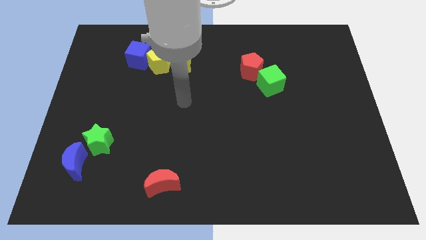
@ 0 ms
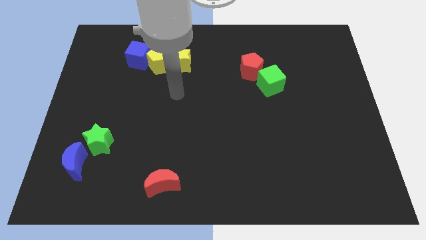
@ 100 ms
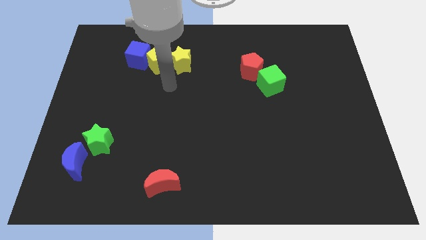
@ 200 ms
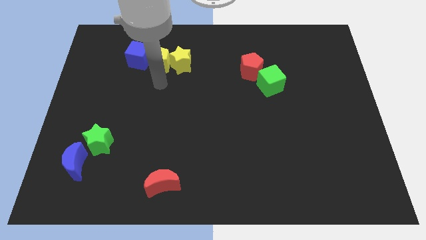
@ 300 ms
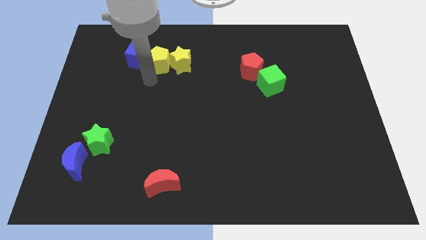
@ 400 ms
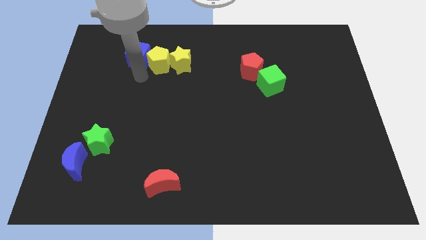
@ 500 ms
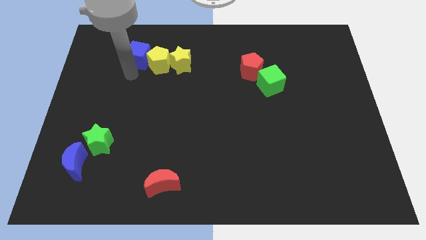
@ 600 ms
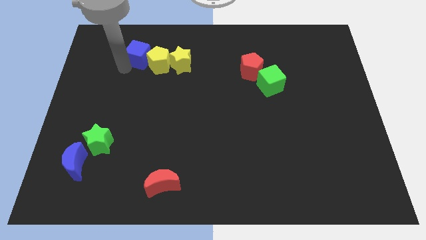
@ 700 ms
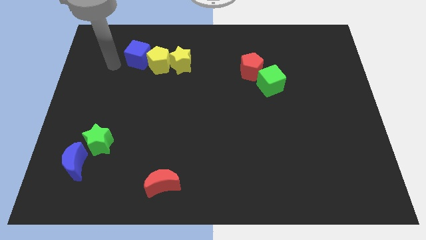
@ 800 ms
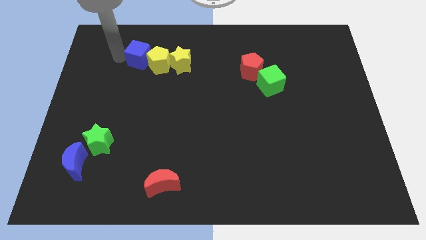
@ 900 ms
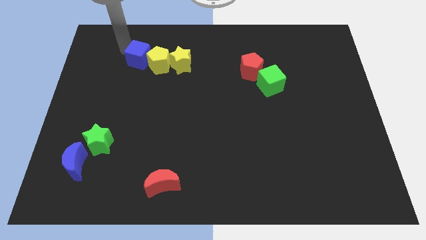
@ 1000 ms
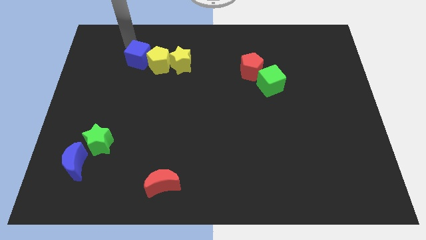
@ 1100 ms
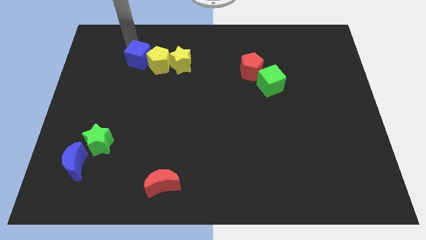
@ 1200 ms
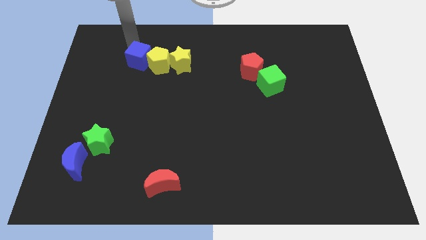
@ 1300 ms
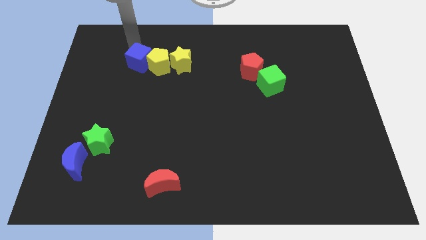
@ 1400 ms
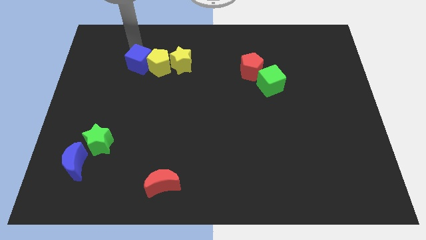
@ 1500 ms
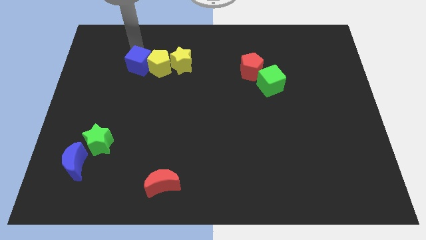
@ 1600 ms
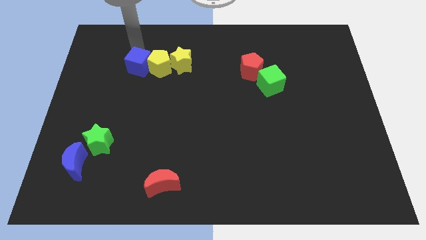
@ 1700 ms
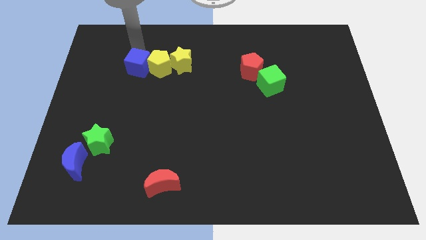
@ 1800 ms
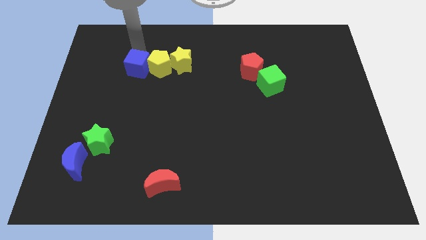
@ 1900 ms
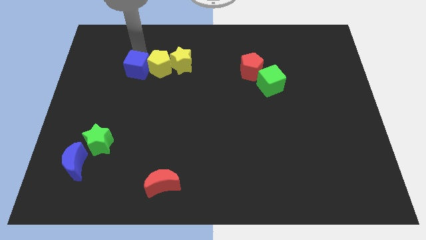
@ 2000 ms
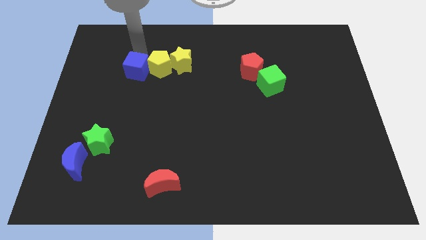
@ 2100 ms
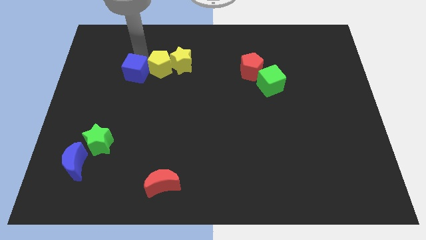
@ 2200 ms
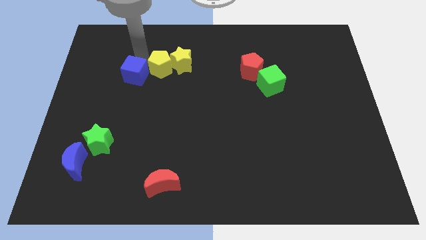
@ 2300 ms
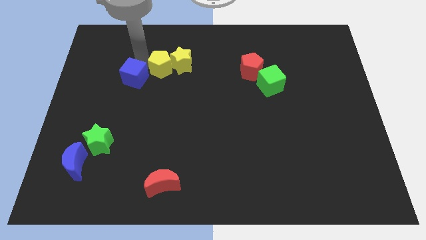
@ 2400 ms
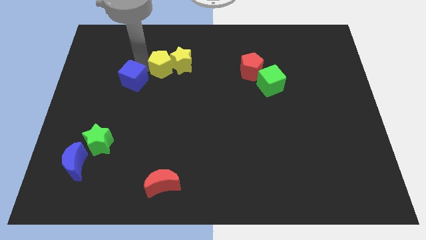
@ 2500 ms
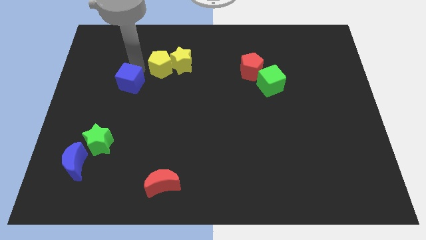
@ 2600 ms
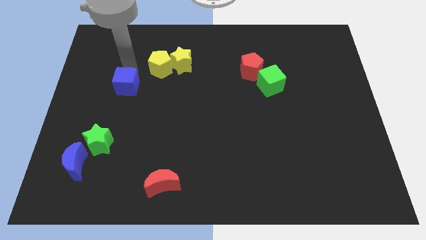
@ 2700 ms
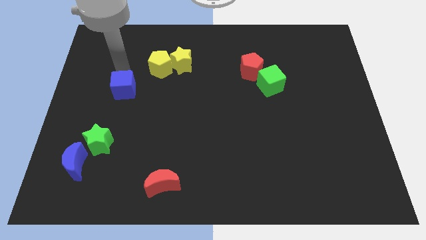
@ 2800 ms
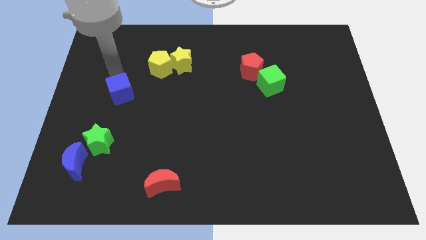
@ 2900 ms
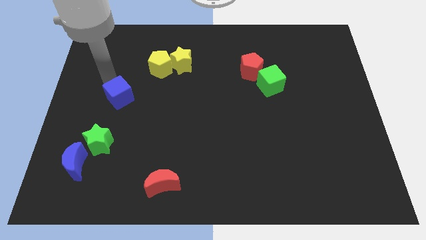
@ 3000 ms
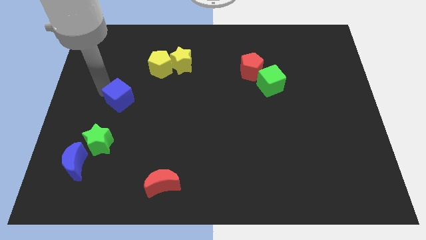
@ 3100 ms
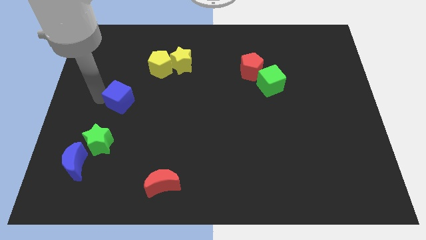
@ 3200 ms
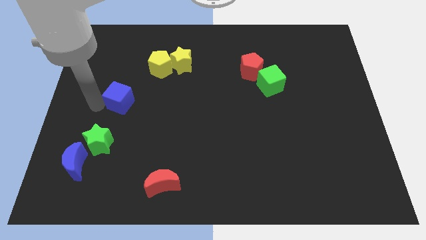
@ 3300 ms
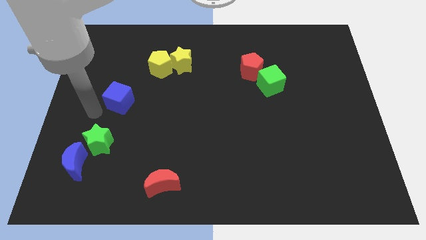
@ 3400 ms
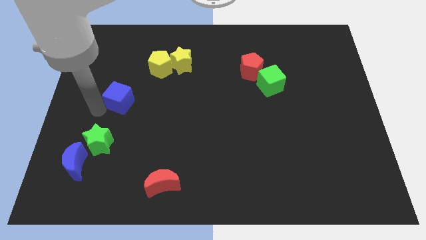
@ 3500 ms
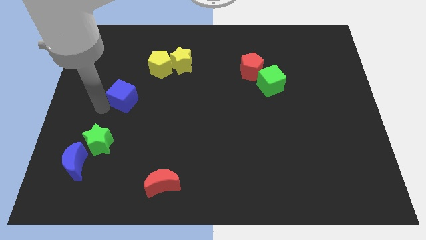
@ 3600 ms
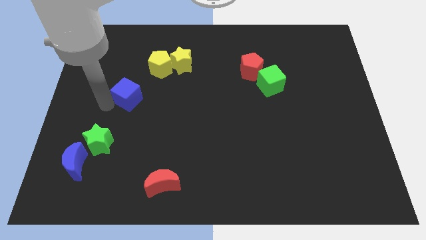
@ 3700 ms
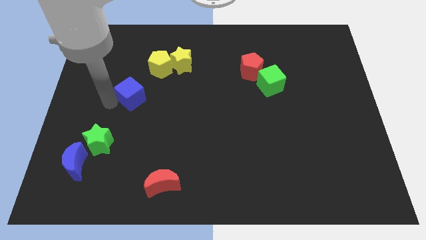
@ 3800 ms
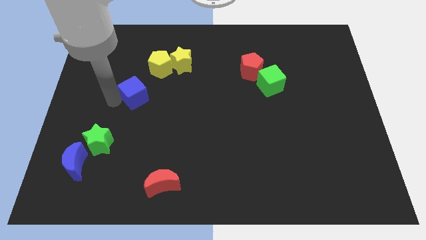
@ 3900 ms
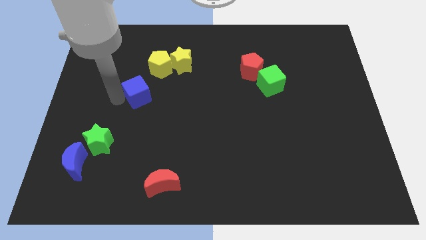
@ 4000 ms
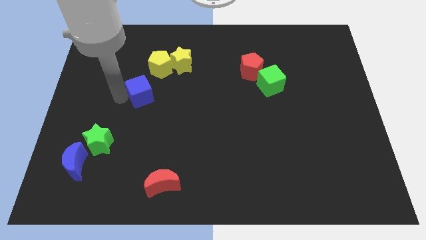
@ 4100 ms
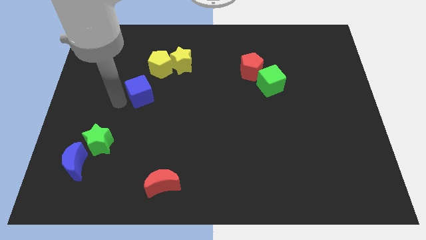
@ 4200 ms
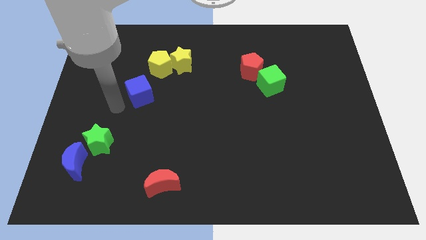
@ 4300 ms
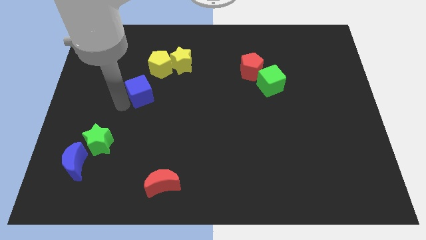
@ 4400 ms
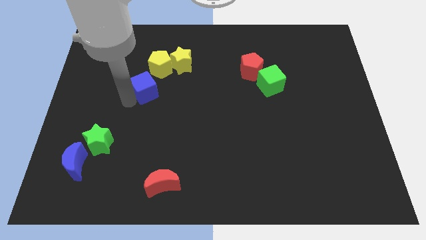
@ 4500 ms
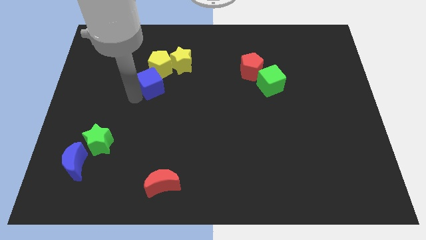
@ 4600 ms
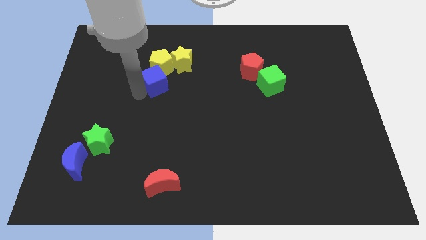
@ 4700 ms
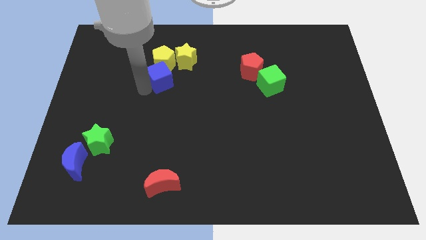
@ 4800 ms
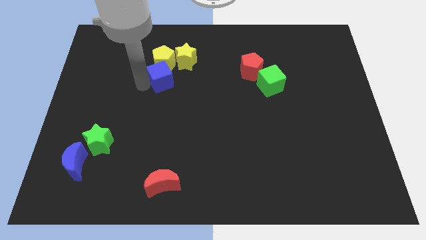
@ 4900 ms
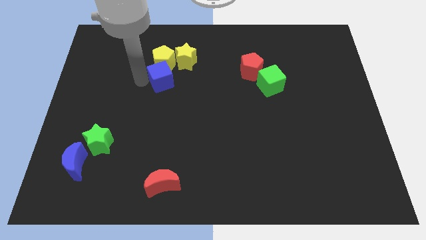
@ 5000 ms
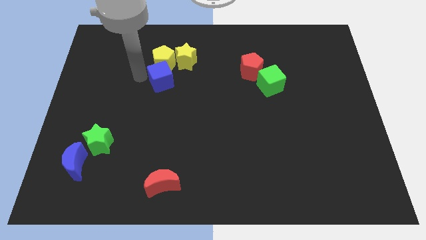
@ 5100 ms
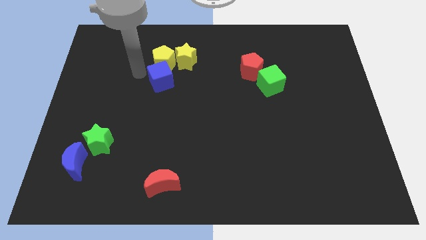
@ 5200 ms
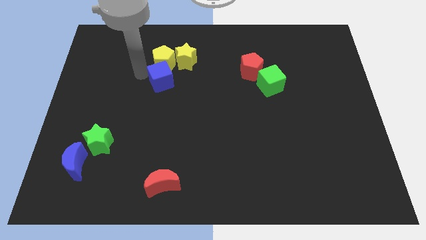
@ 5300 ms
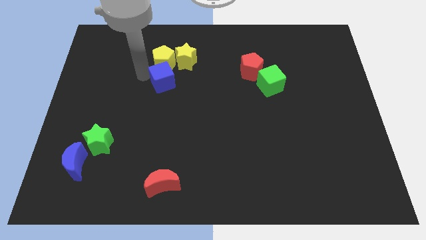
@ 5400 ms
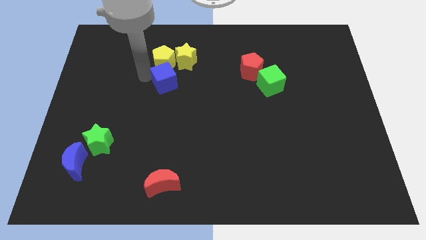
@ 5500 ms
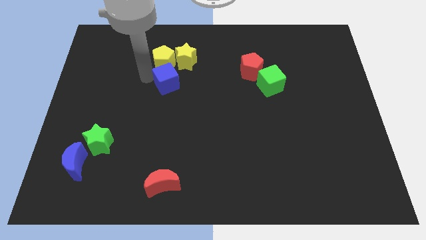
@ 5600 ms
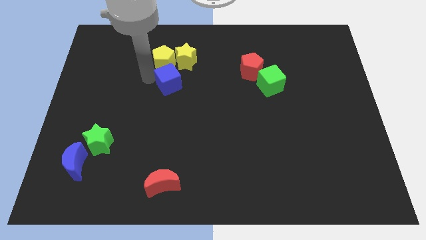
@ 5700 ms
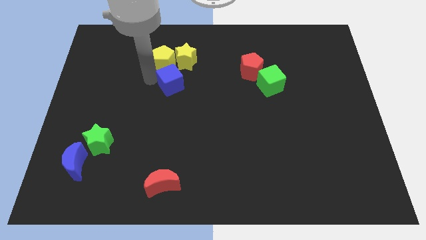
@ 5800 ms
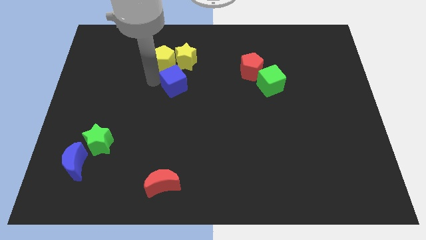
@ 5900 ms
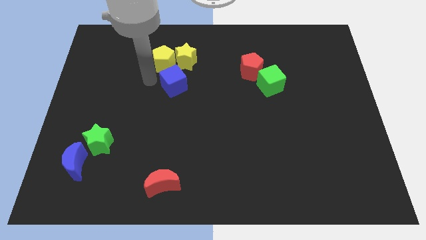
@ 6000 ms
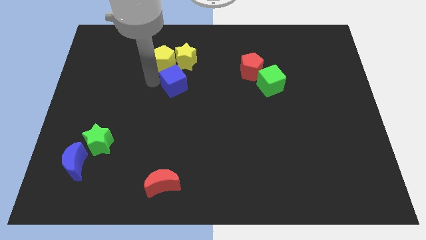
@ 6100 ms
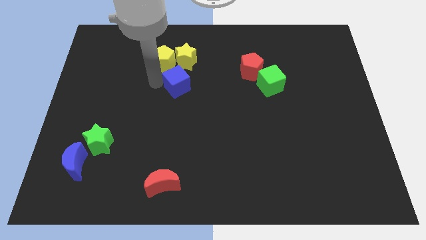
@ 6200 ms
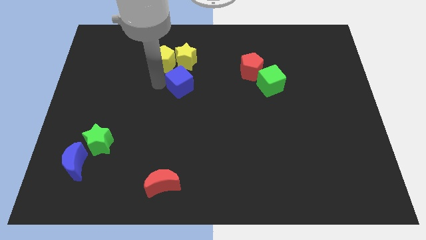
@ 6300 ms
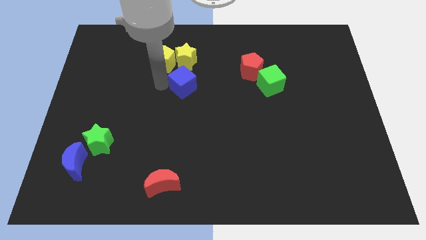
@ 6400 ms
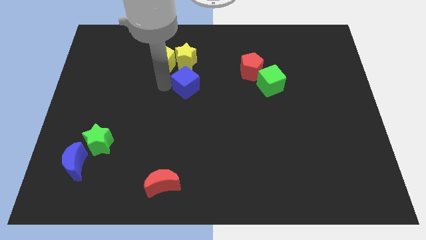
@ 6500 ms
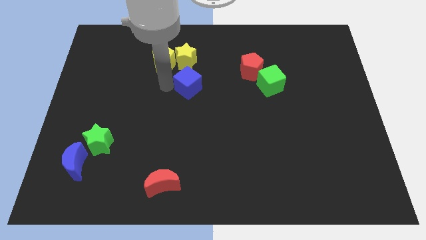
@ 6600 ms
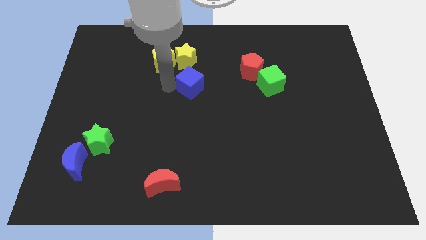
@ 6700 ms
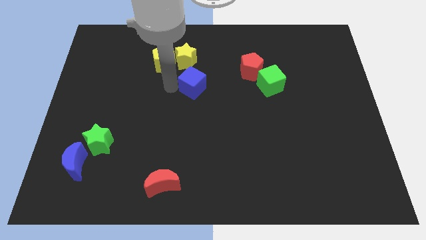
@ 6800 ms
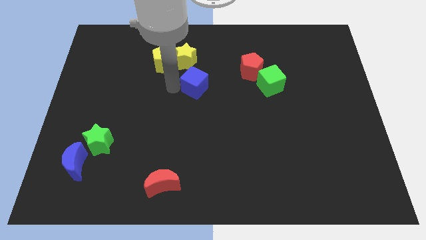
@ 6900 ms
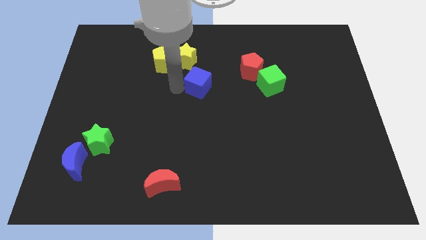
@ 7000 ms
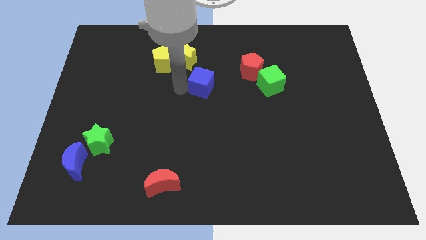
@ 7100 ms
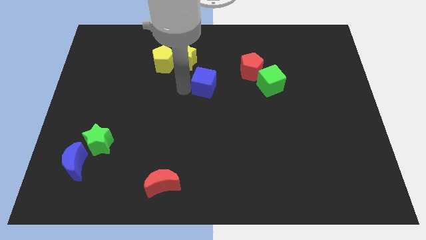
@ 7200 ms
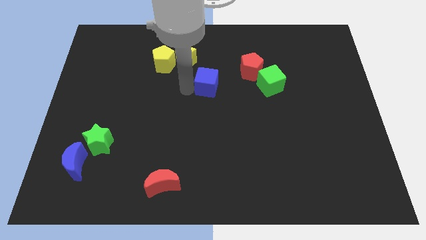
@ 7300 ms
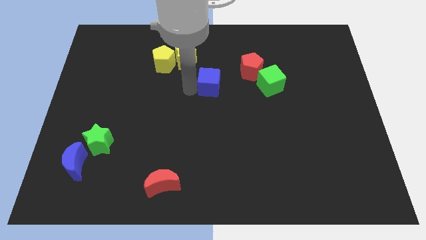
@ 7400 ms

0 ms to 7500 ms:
push the blue cube diagonally down and to the left of the red pentagon

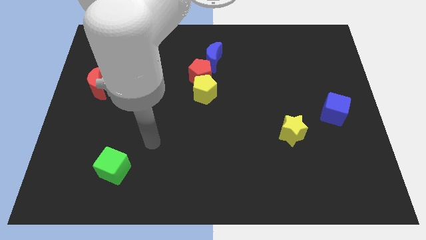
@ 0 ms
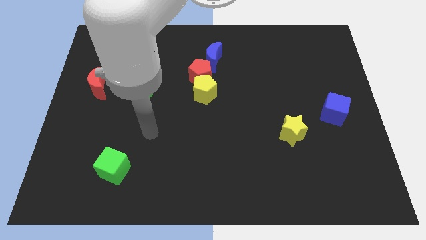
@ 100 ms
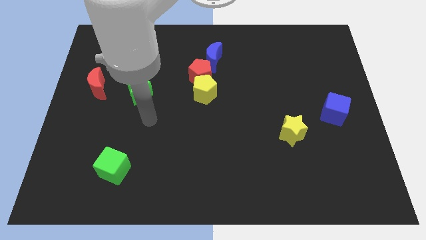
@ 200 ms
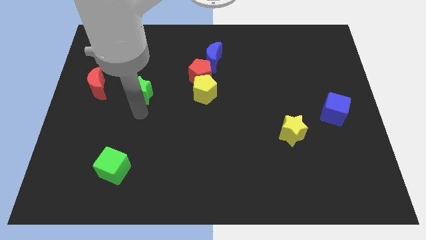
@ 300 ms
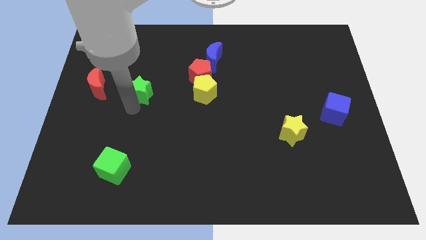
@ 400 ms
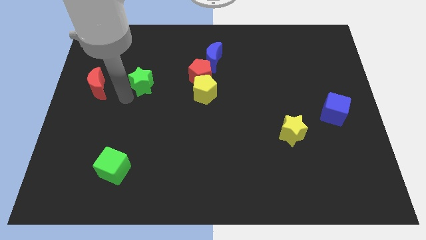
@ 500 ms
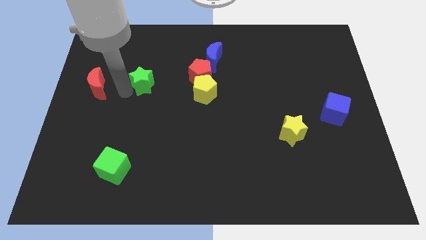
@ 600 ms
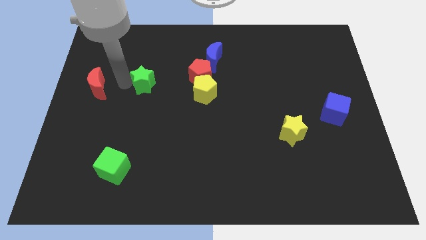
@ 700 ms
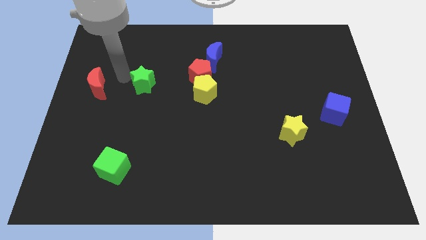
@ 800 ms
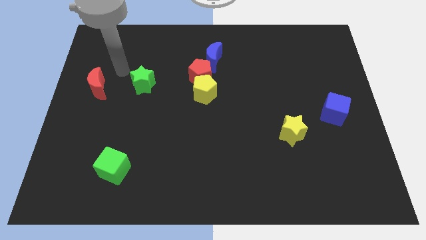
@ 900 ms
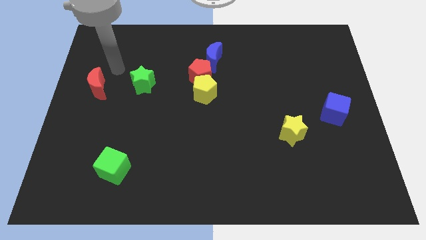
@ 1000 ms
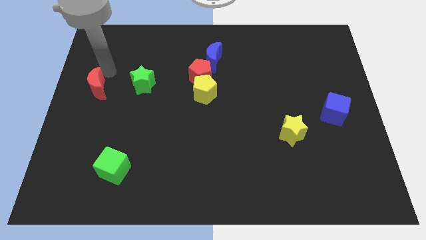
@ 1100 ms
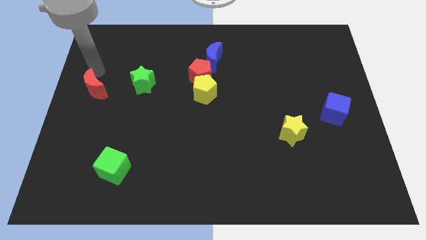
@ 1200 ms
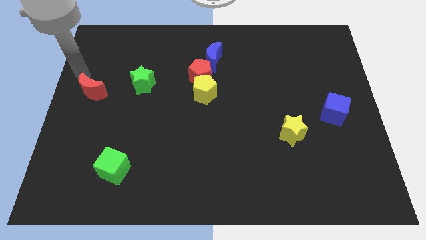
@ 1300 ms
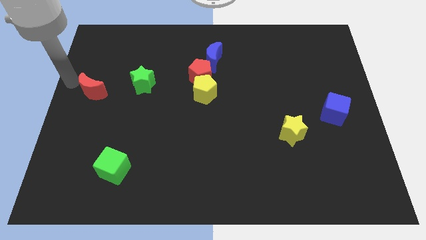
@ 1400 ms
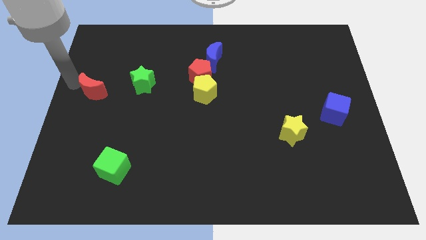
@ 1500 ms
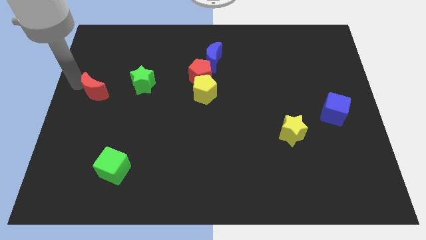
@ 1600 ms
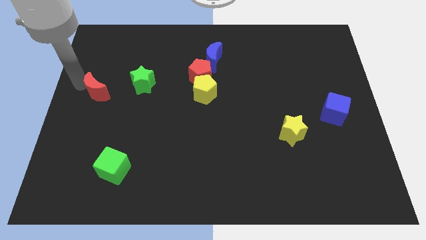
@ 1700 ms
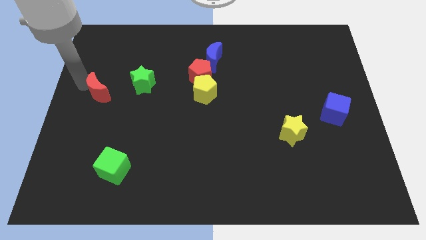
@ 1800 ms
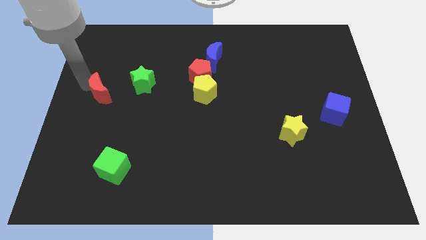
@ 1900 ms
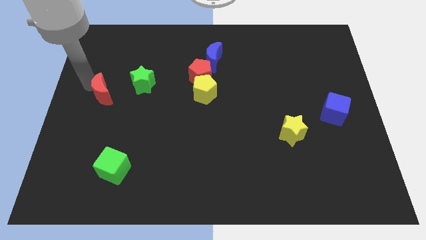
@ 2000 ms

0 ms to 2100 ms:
move the red moon to the bottom left side of the green star
